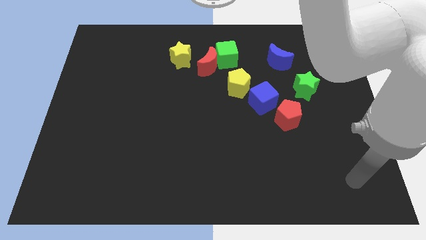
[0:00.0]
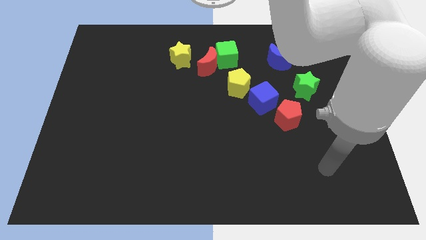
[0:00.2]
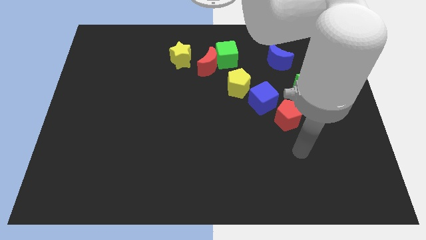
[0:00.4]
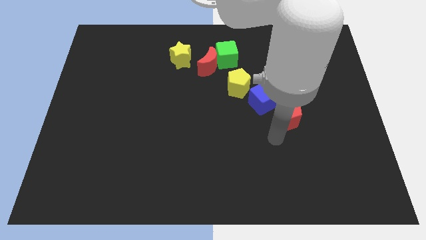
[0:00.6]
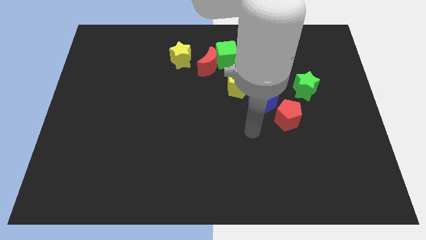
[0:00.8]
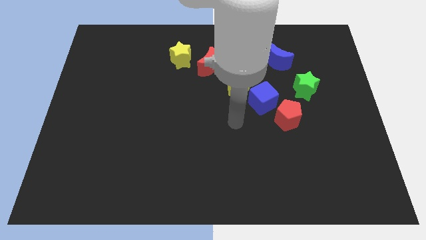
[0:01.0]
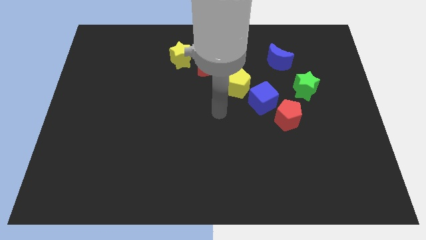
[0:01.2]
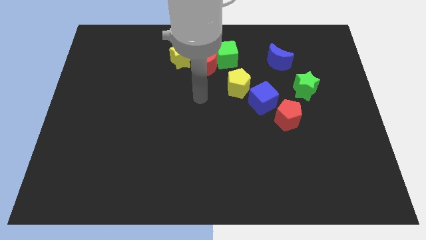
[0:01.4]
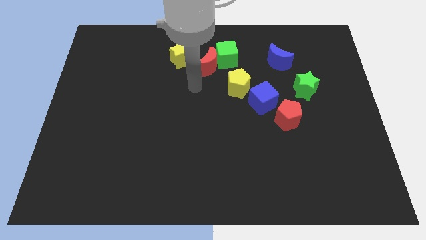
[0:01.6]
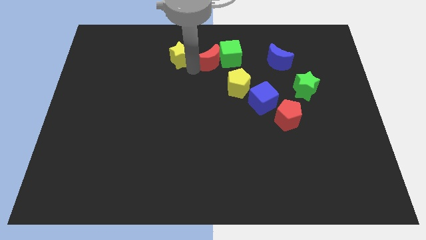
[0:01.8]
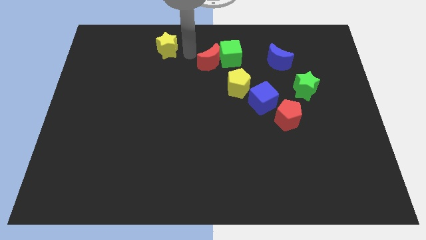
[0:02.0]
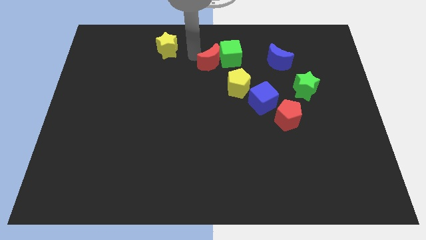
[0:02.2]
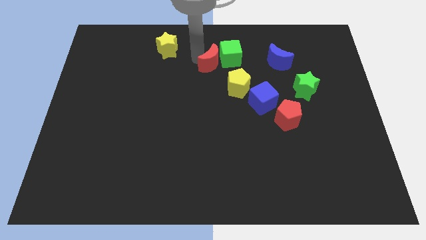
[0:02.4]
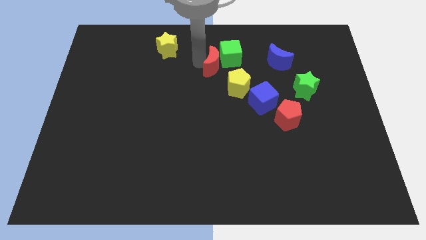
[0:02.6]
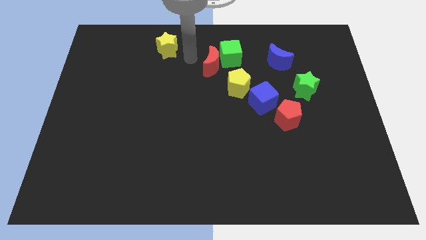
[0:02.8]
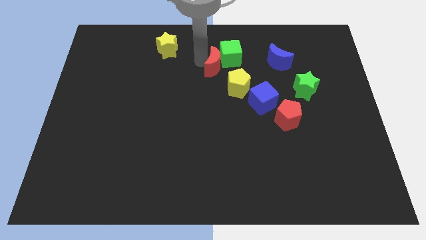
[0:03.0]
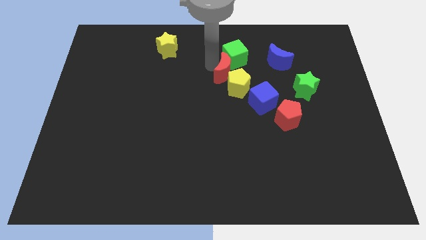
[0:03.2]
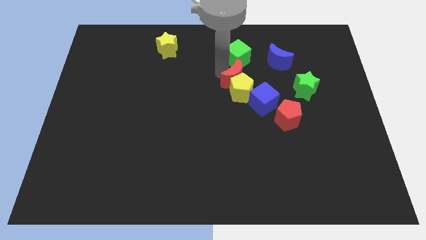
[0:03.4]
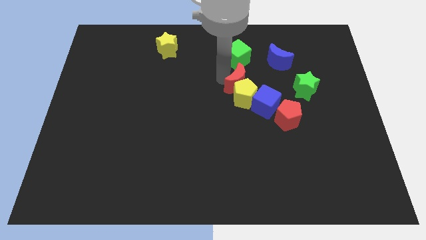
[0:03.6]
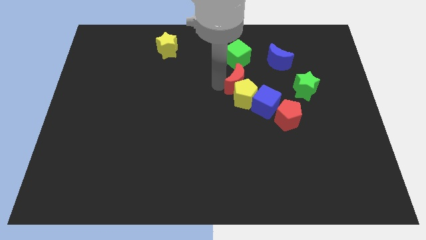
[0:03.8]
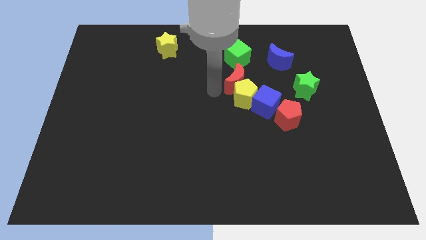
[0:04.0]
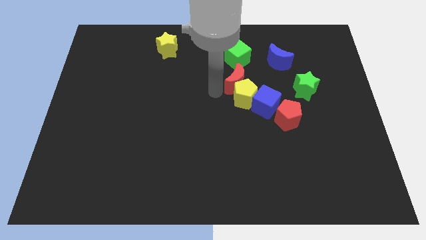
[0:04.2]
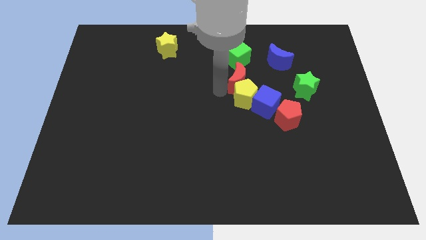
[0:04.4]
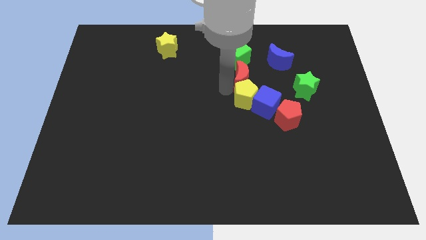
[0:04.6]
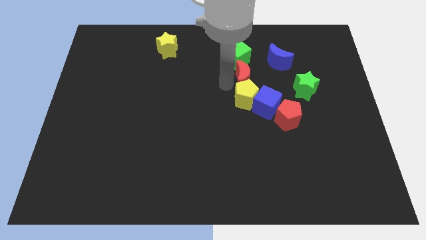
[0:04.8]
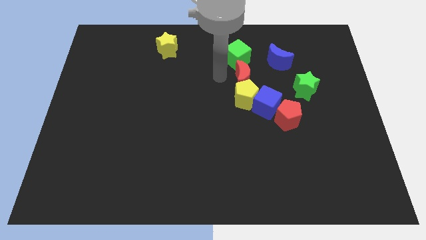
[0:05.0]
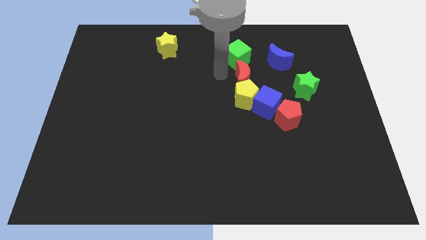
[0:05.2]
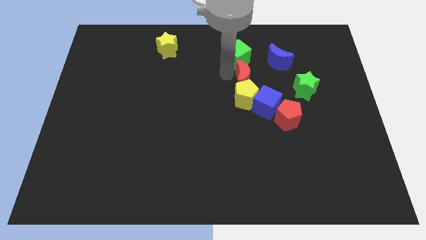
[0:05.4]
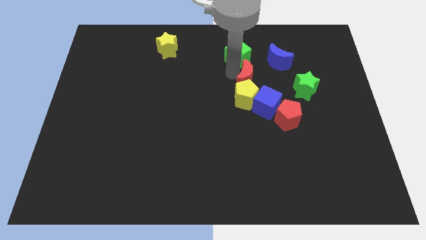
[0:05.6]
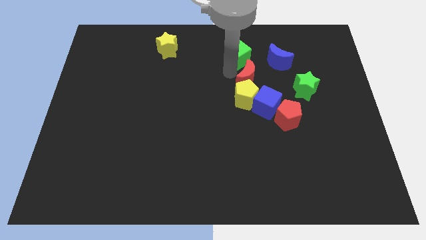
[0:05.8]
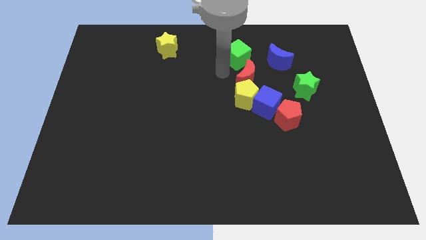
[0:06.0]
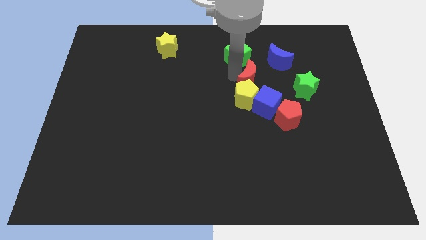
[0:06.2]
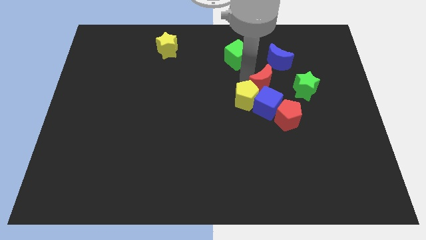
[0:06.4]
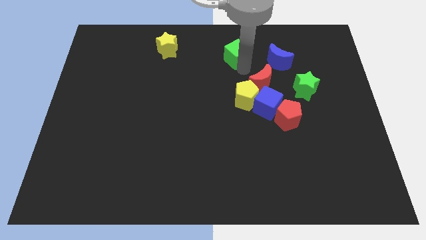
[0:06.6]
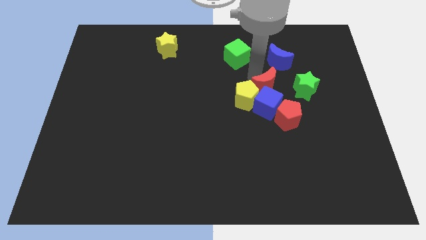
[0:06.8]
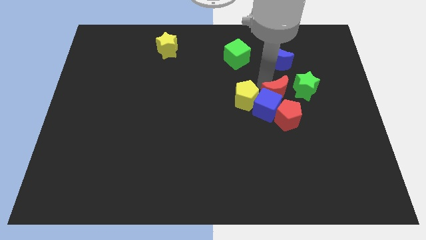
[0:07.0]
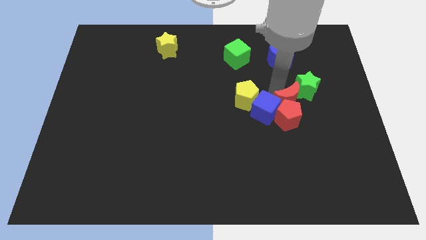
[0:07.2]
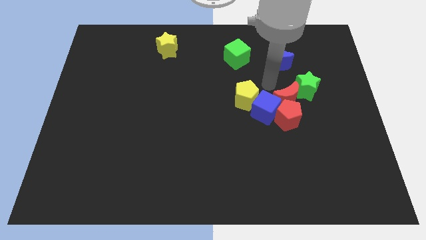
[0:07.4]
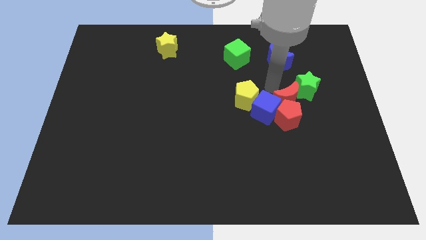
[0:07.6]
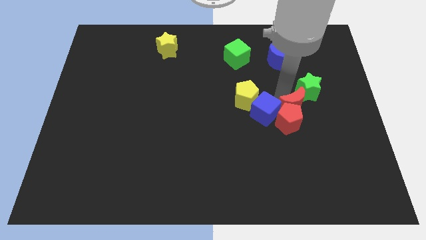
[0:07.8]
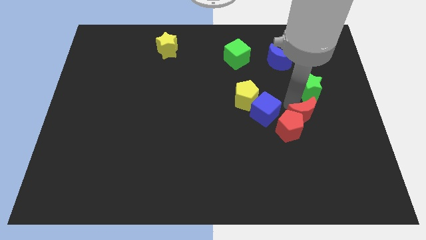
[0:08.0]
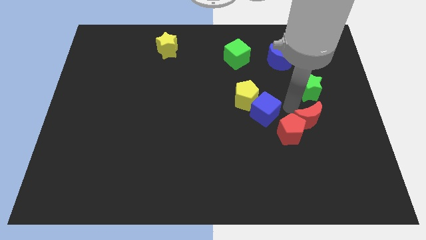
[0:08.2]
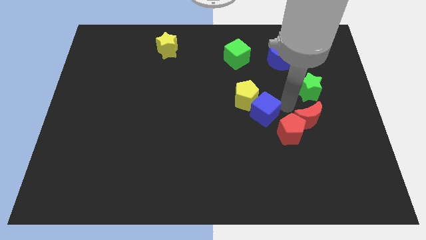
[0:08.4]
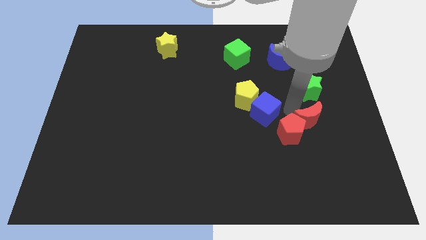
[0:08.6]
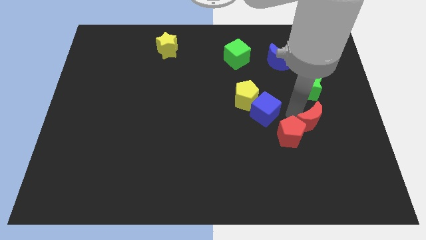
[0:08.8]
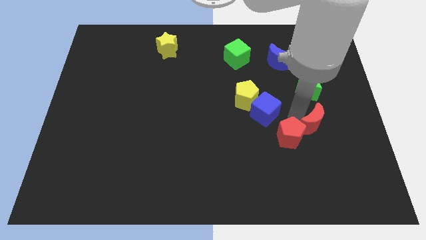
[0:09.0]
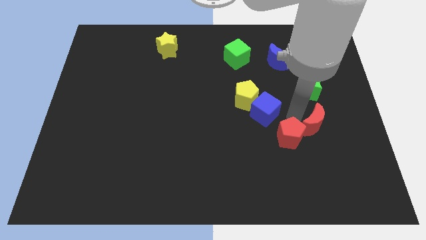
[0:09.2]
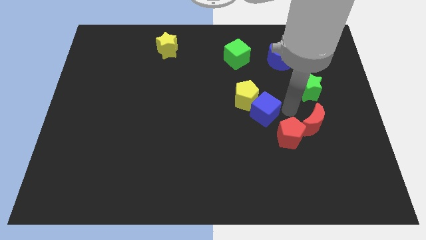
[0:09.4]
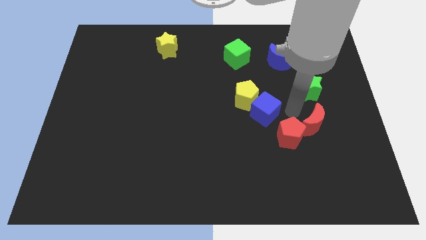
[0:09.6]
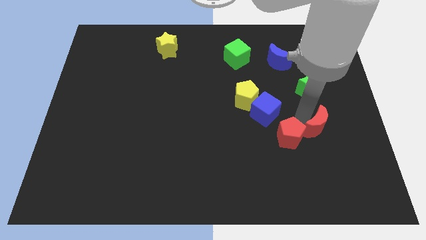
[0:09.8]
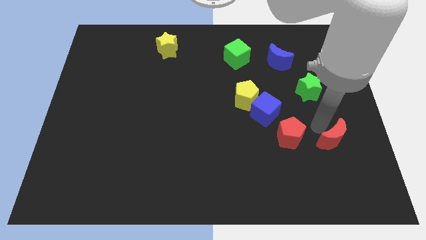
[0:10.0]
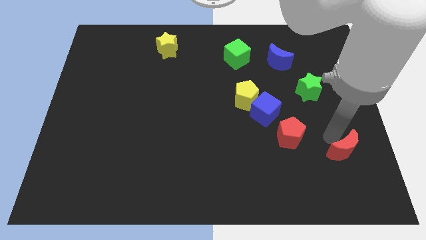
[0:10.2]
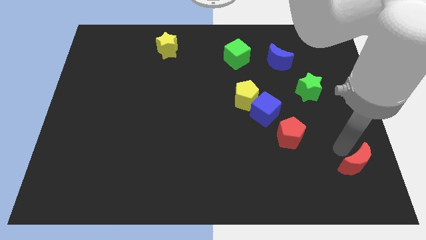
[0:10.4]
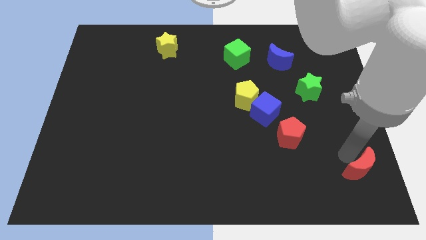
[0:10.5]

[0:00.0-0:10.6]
move the red moon to the bottom right

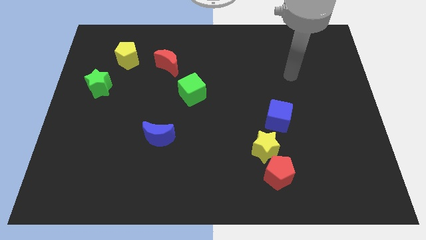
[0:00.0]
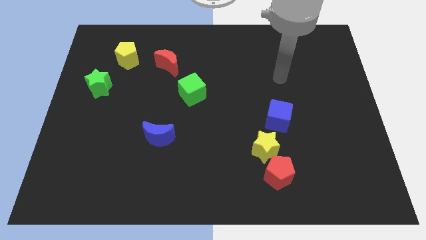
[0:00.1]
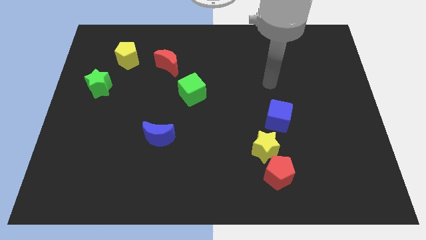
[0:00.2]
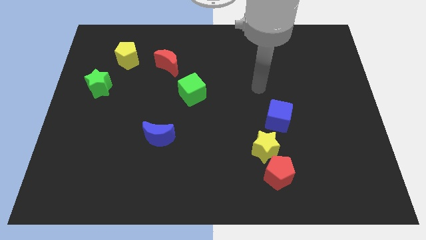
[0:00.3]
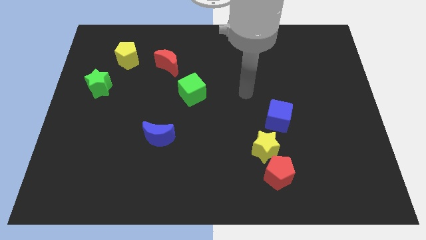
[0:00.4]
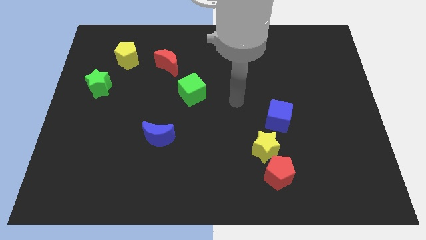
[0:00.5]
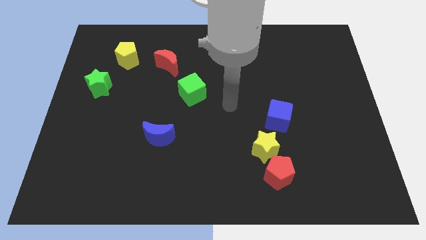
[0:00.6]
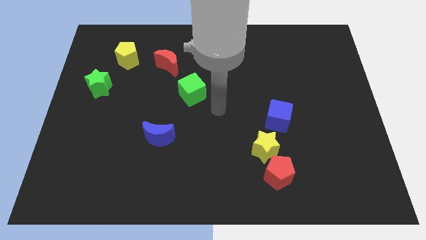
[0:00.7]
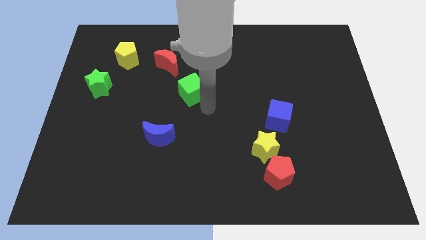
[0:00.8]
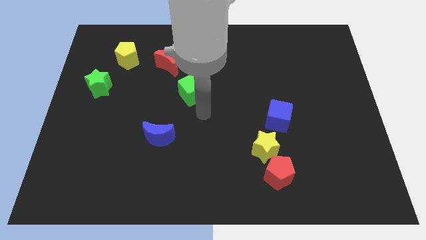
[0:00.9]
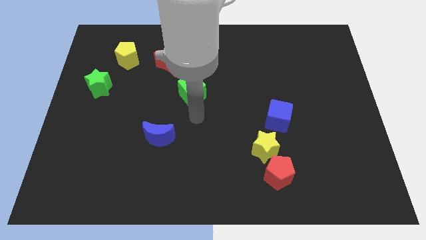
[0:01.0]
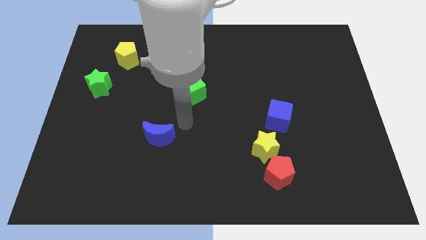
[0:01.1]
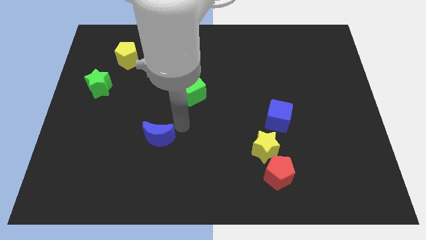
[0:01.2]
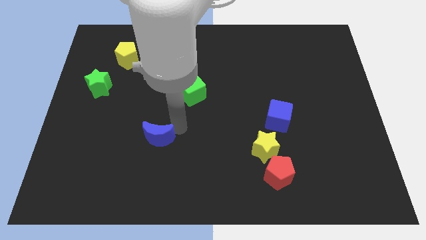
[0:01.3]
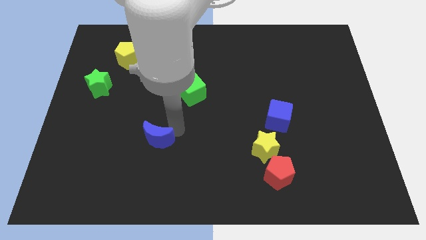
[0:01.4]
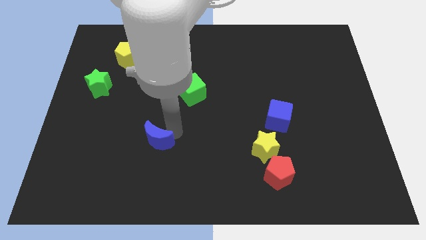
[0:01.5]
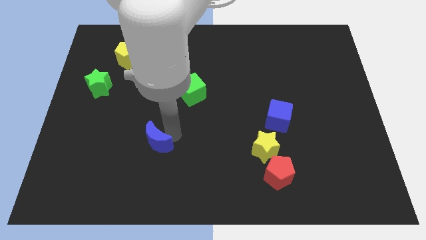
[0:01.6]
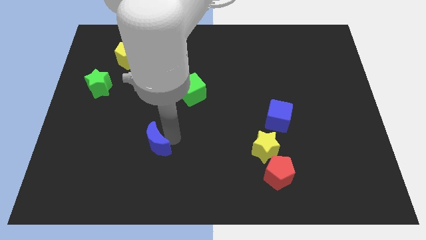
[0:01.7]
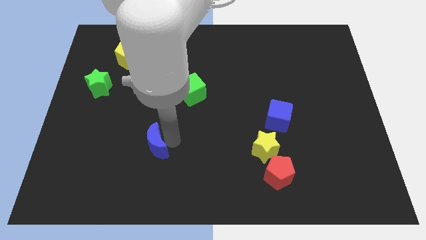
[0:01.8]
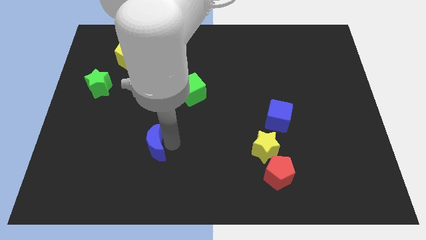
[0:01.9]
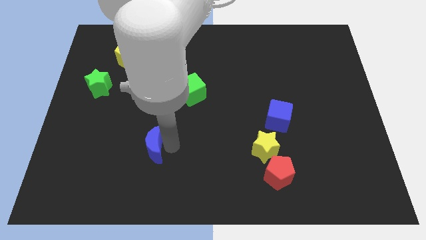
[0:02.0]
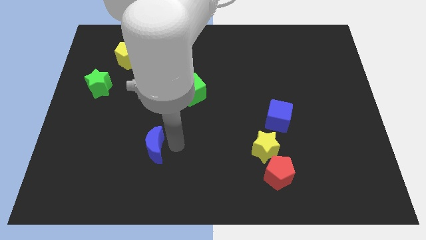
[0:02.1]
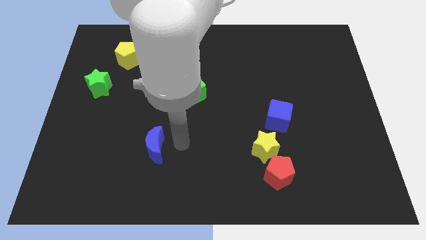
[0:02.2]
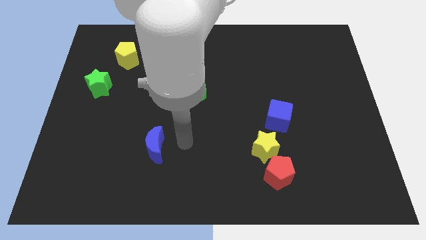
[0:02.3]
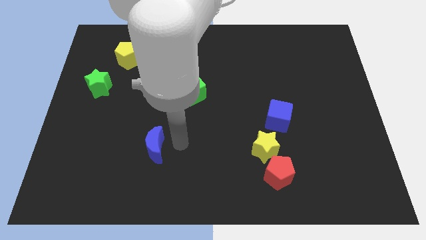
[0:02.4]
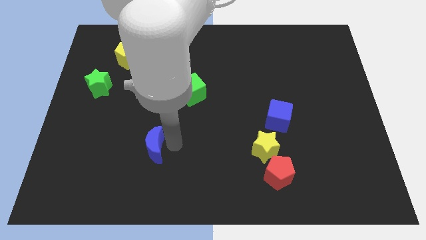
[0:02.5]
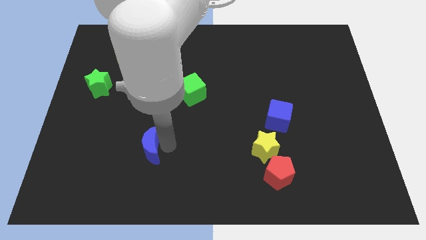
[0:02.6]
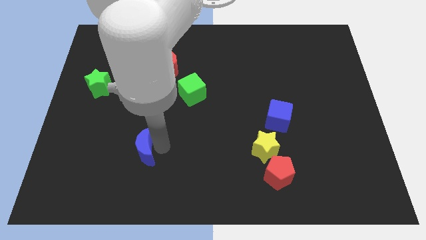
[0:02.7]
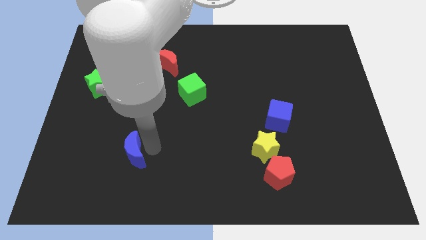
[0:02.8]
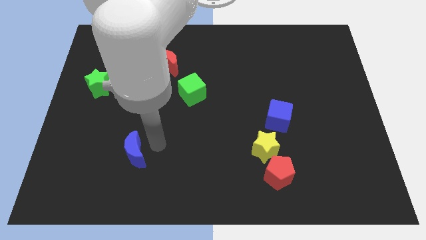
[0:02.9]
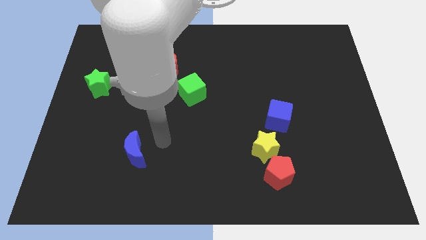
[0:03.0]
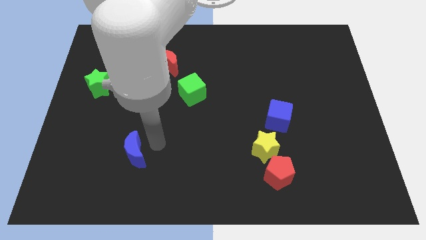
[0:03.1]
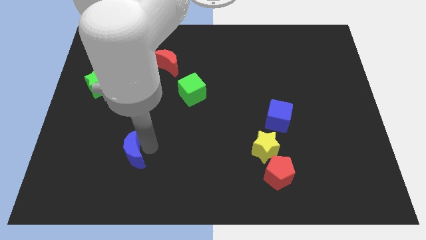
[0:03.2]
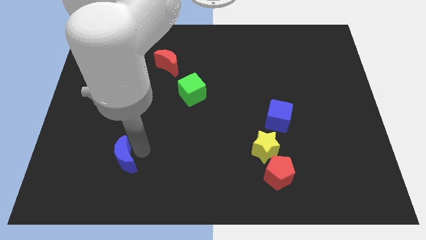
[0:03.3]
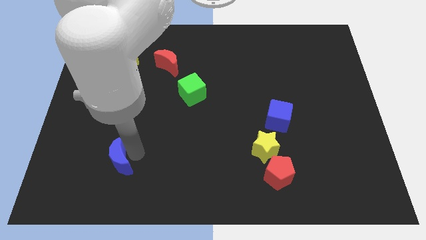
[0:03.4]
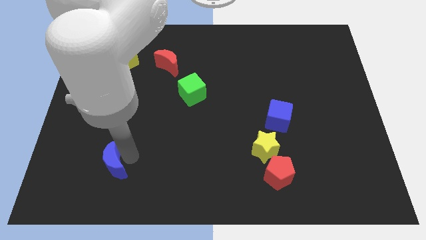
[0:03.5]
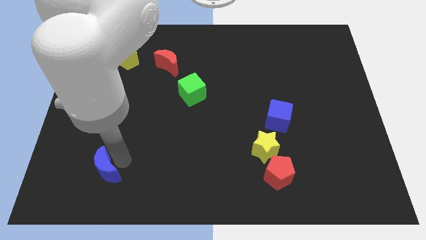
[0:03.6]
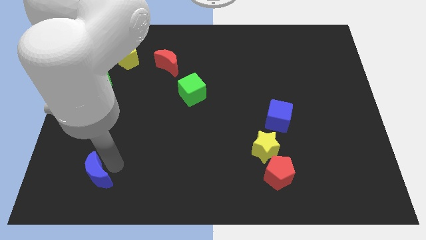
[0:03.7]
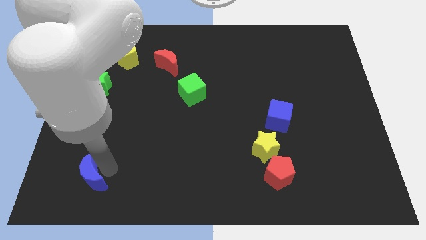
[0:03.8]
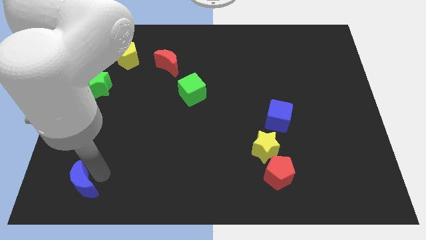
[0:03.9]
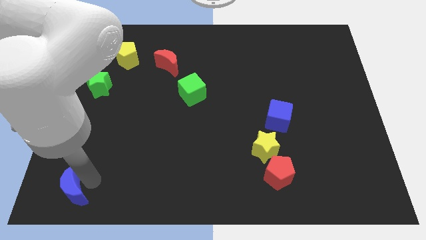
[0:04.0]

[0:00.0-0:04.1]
push the blue moon to the bottom left of the board
